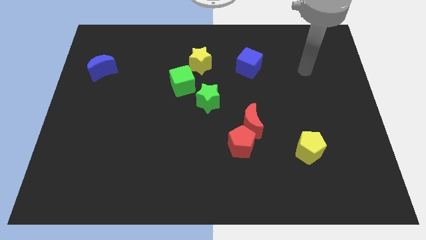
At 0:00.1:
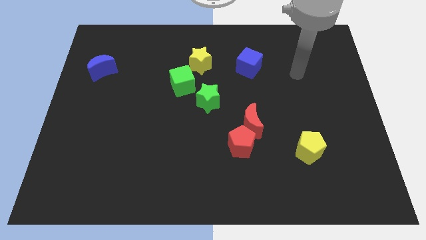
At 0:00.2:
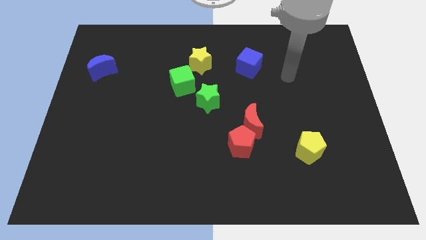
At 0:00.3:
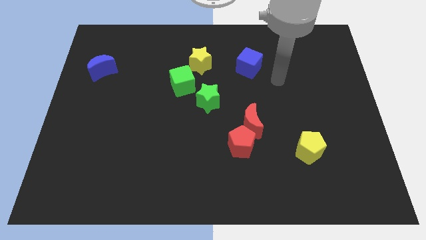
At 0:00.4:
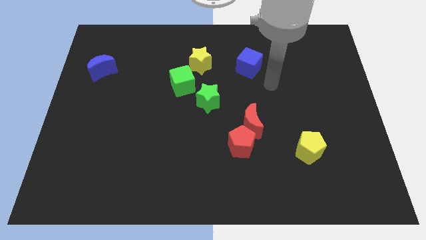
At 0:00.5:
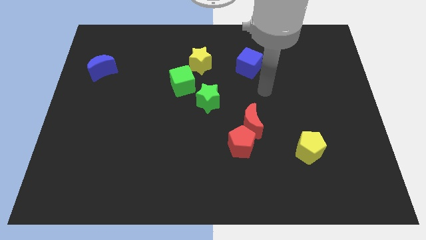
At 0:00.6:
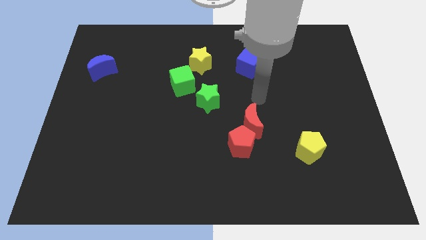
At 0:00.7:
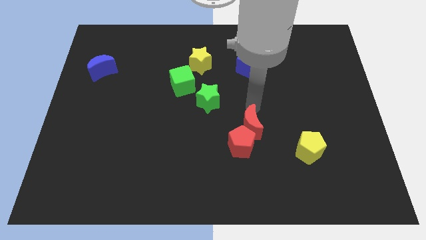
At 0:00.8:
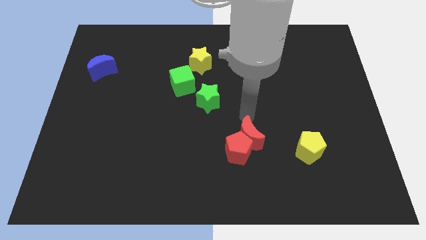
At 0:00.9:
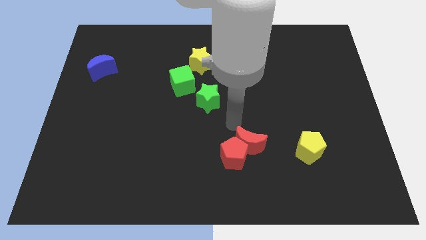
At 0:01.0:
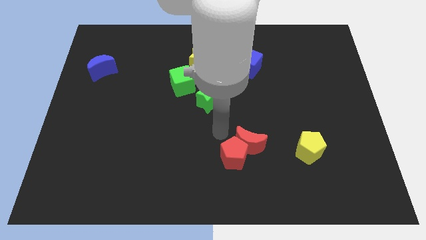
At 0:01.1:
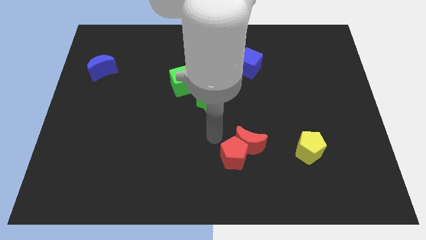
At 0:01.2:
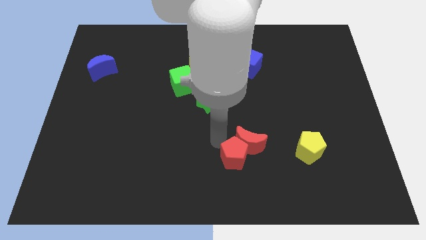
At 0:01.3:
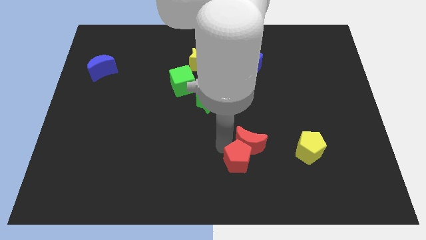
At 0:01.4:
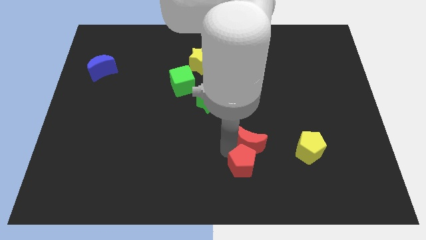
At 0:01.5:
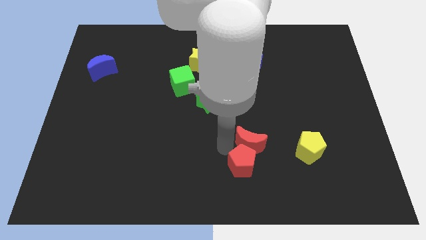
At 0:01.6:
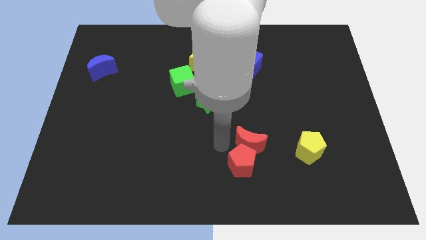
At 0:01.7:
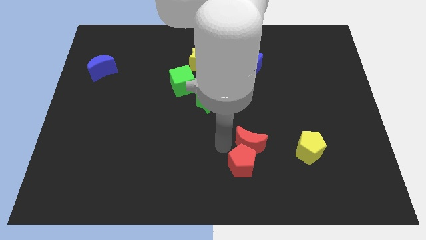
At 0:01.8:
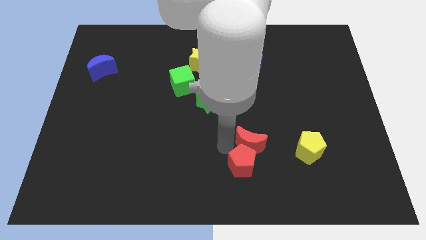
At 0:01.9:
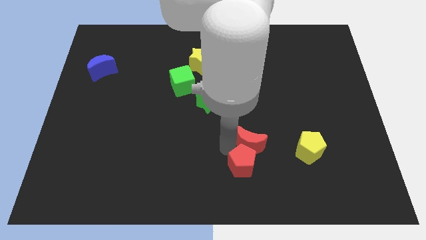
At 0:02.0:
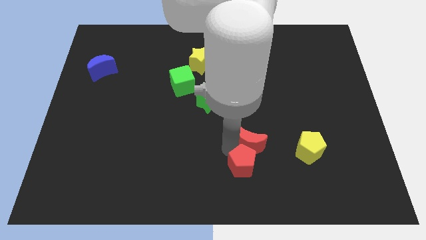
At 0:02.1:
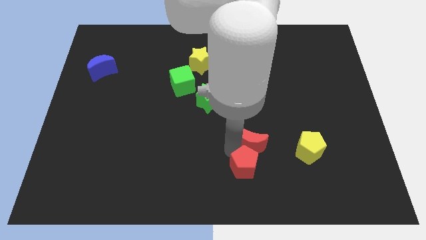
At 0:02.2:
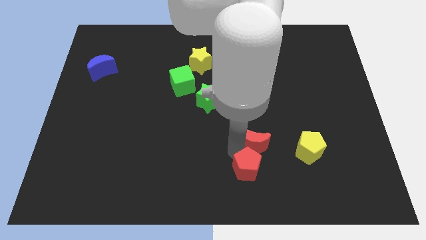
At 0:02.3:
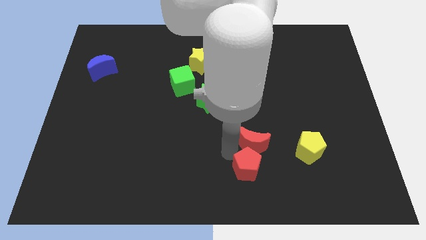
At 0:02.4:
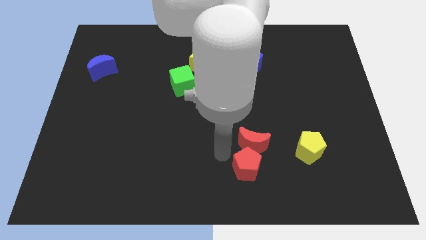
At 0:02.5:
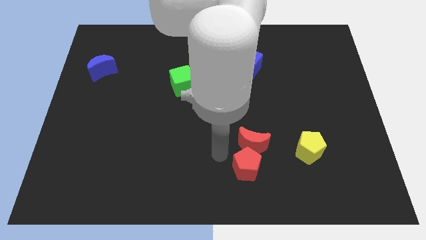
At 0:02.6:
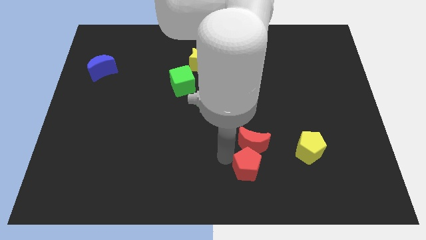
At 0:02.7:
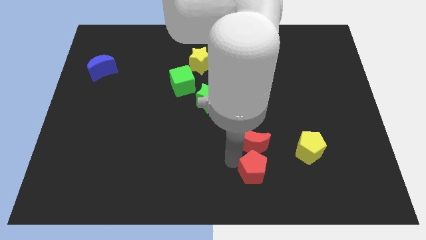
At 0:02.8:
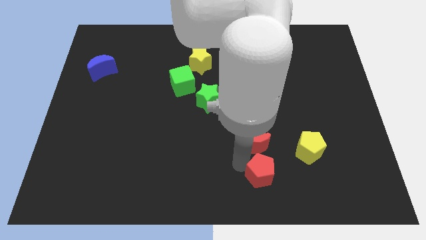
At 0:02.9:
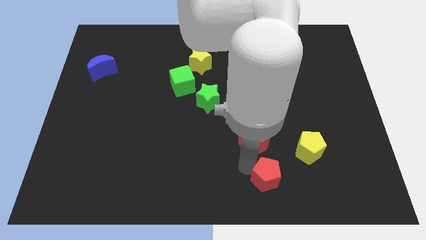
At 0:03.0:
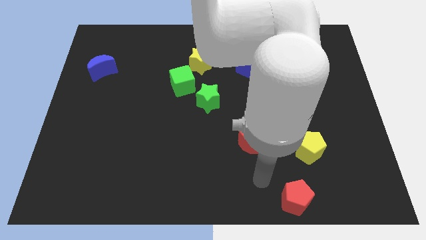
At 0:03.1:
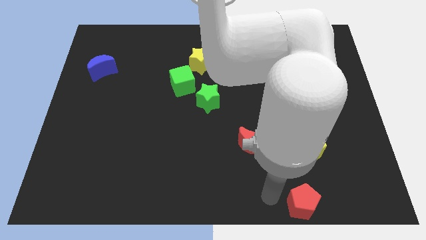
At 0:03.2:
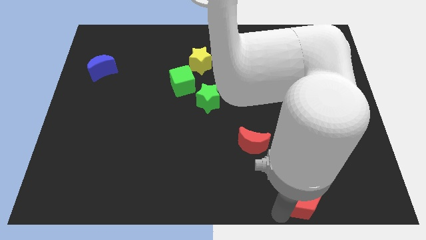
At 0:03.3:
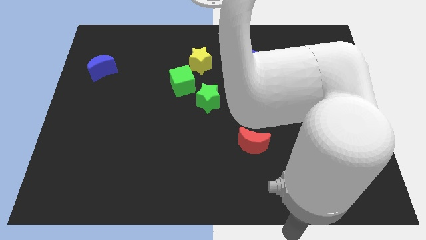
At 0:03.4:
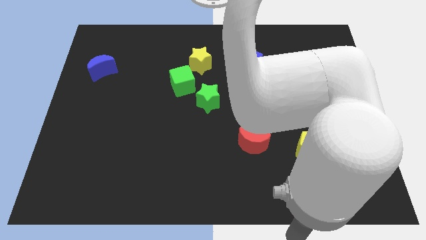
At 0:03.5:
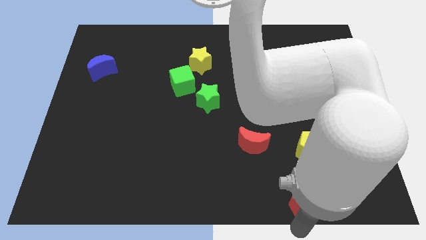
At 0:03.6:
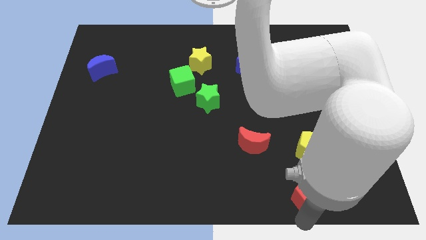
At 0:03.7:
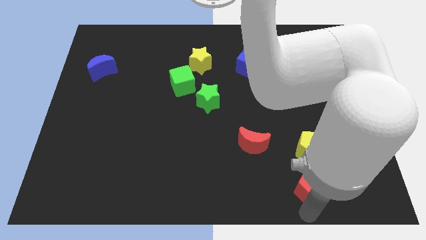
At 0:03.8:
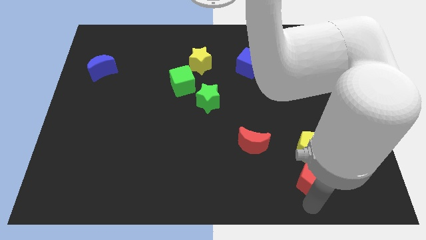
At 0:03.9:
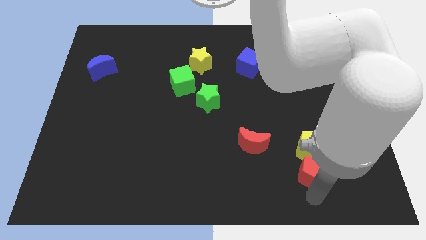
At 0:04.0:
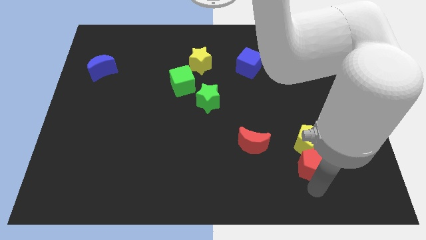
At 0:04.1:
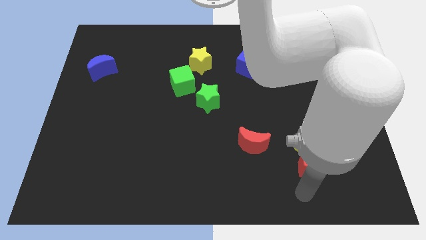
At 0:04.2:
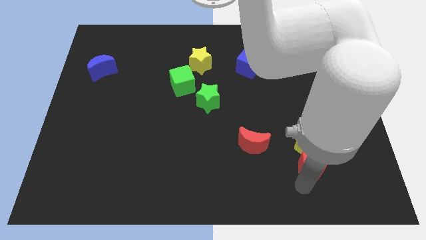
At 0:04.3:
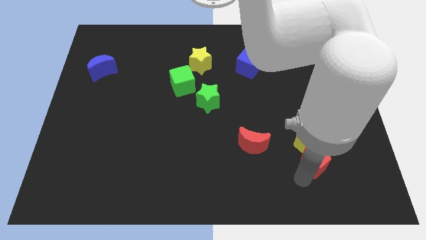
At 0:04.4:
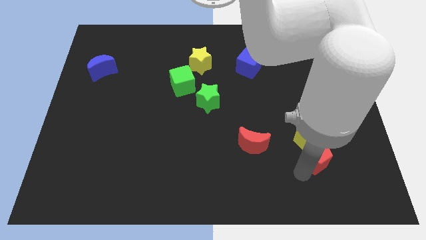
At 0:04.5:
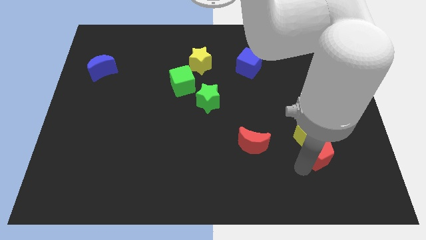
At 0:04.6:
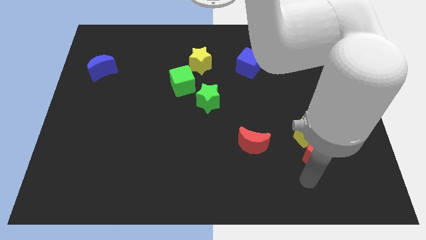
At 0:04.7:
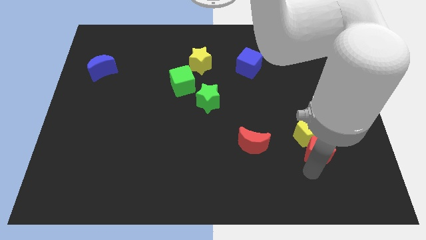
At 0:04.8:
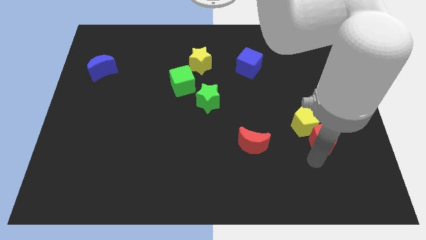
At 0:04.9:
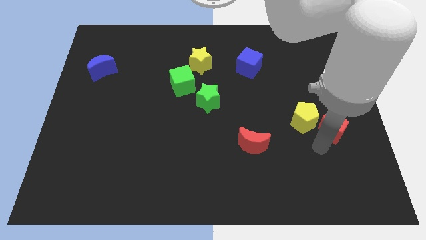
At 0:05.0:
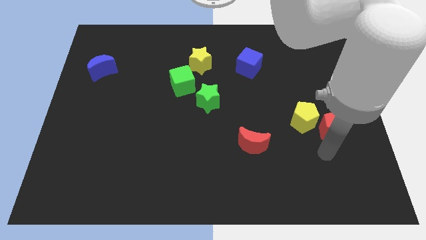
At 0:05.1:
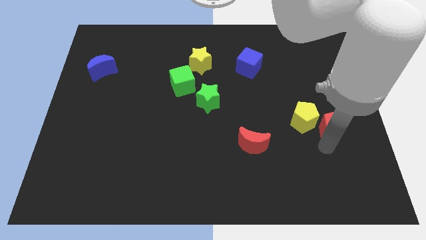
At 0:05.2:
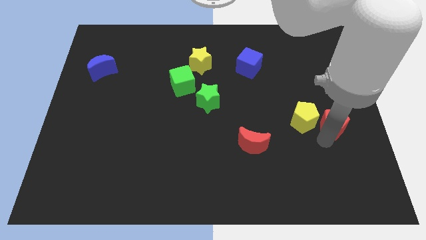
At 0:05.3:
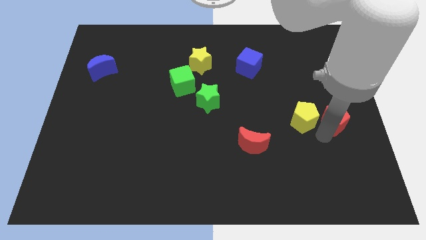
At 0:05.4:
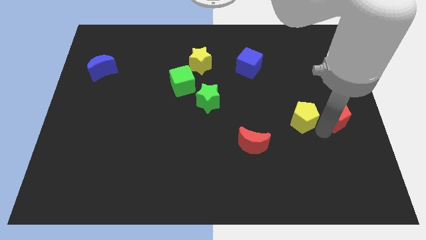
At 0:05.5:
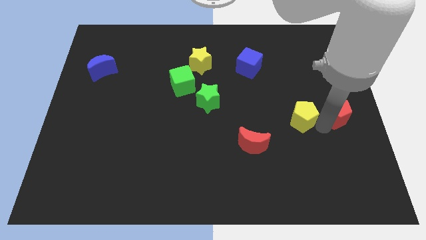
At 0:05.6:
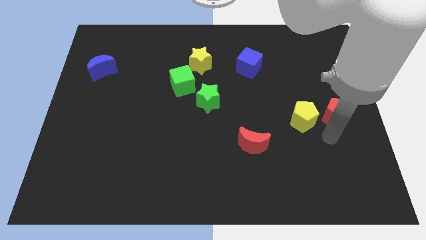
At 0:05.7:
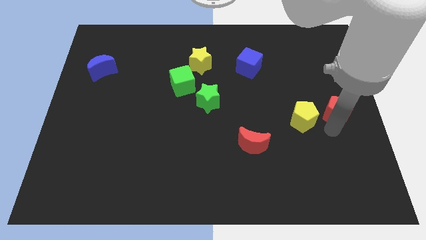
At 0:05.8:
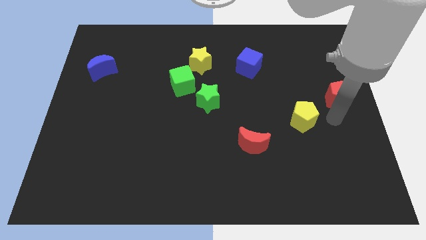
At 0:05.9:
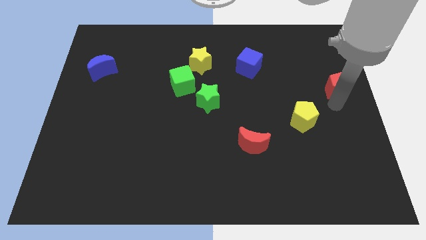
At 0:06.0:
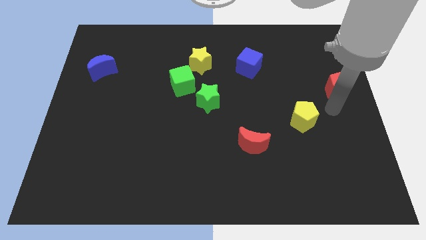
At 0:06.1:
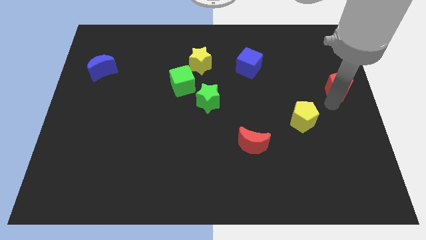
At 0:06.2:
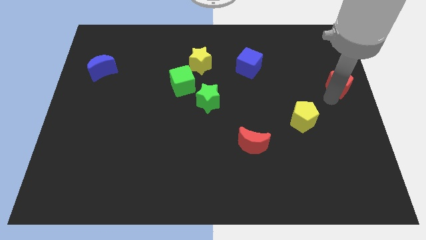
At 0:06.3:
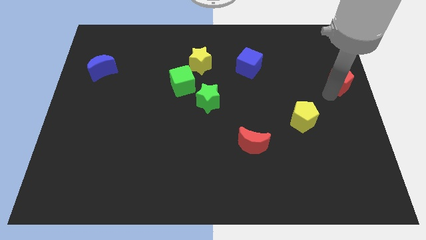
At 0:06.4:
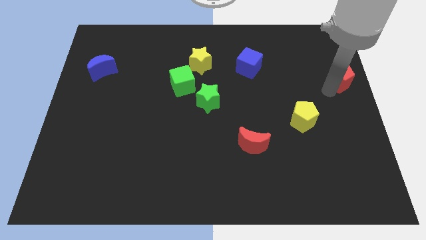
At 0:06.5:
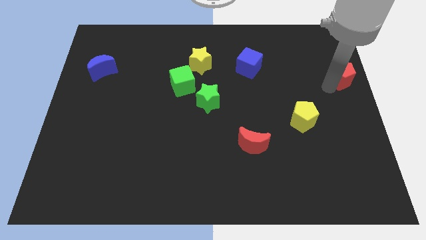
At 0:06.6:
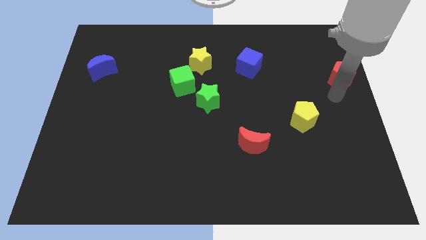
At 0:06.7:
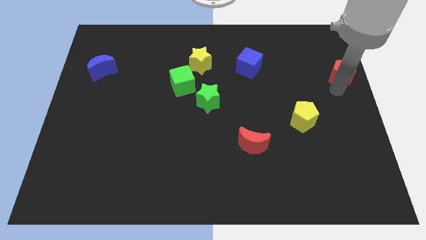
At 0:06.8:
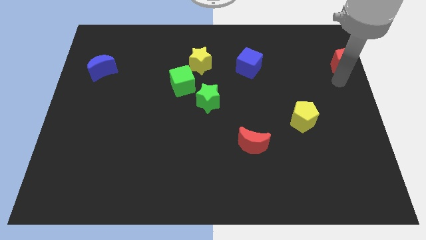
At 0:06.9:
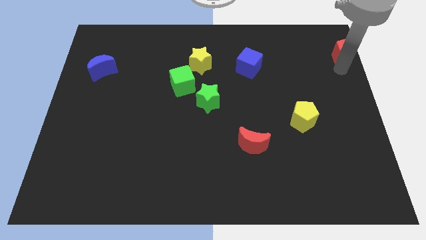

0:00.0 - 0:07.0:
move the red pentagon to the top right corner
